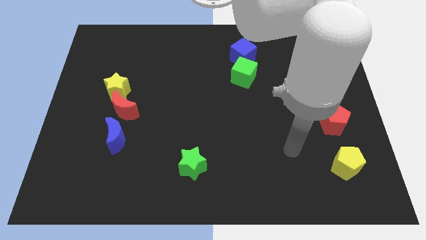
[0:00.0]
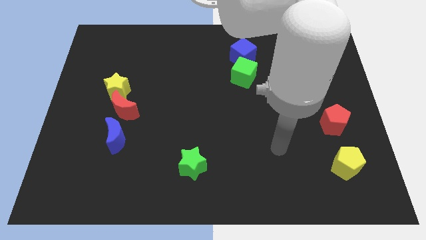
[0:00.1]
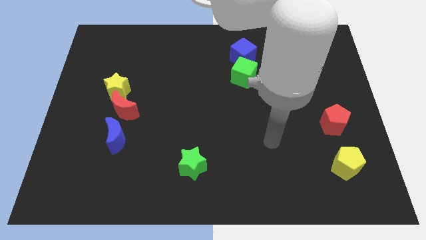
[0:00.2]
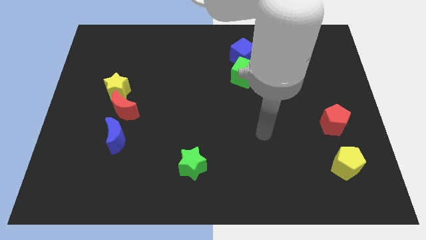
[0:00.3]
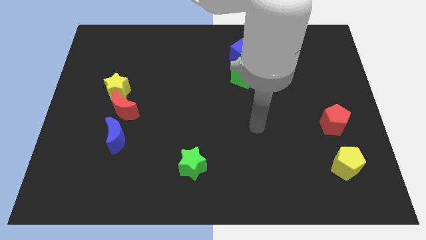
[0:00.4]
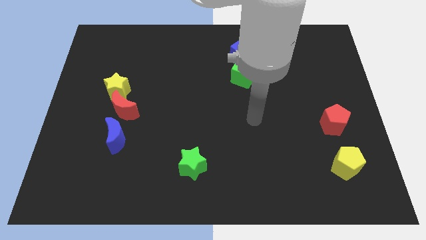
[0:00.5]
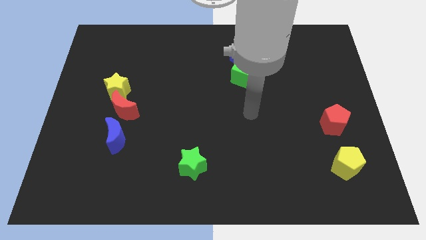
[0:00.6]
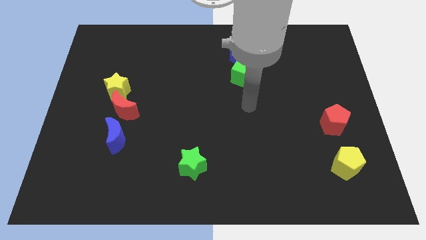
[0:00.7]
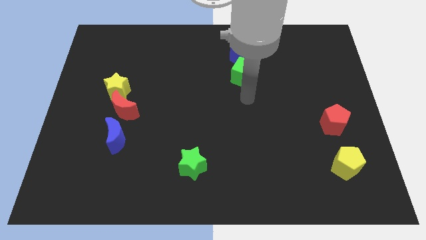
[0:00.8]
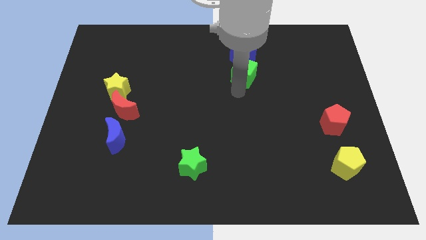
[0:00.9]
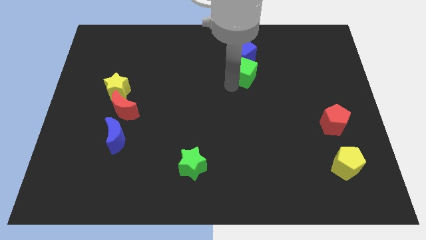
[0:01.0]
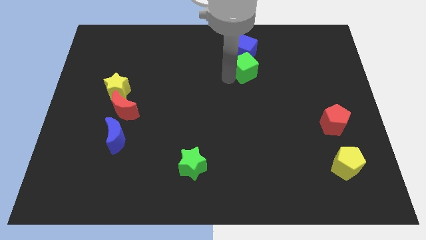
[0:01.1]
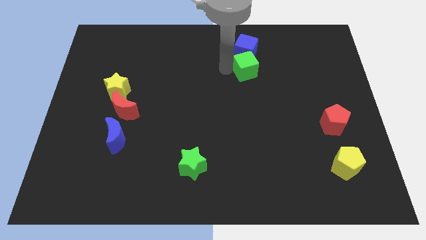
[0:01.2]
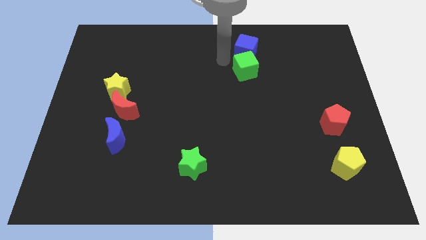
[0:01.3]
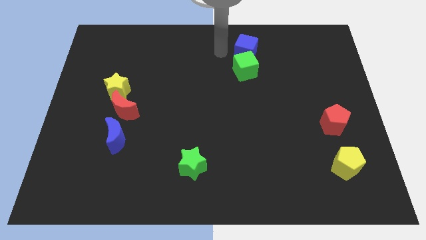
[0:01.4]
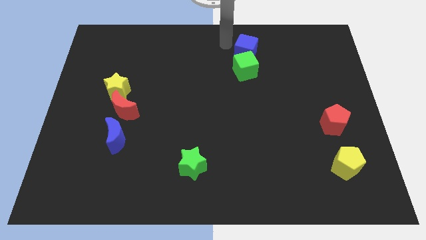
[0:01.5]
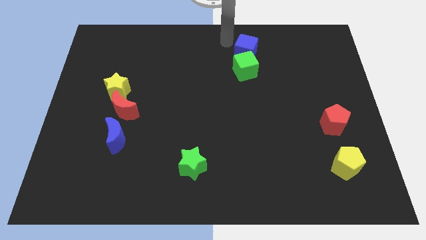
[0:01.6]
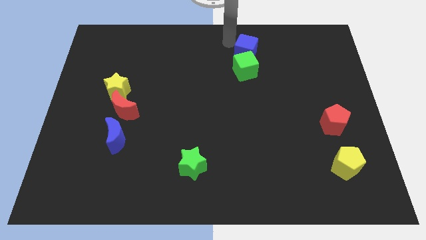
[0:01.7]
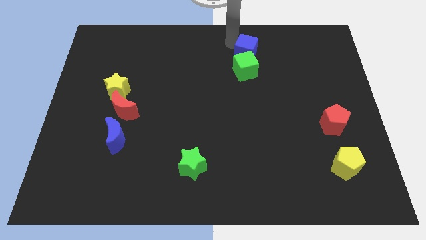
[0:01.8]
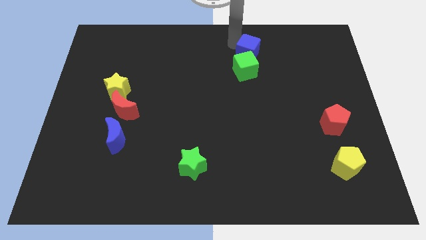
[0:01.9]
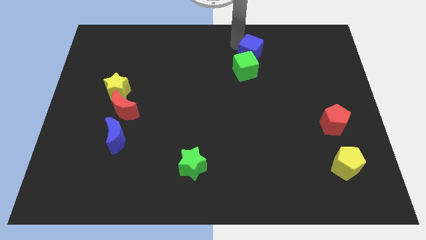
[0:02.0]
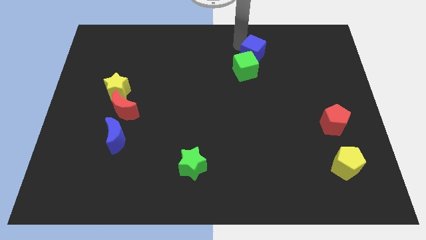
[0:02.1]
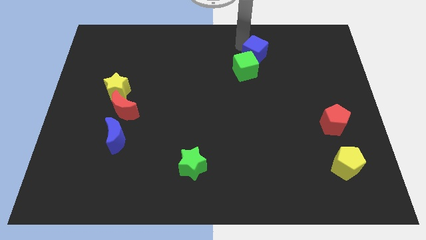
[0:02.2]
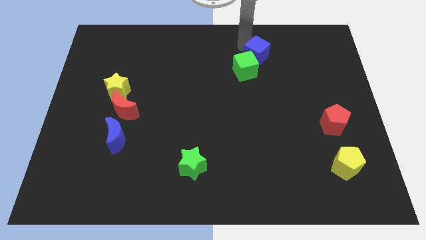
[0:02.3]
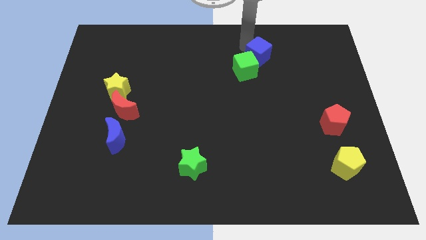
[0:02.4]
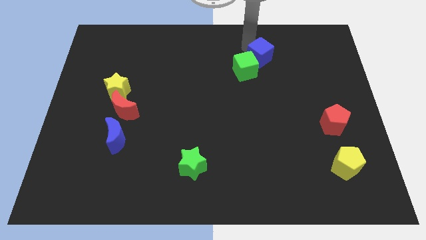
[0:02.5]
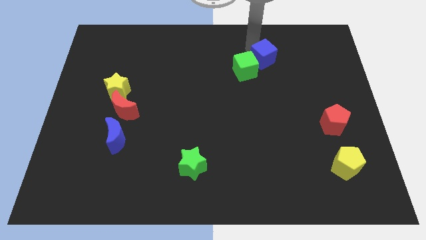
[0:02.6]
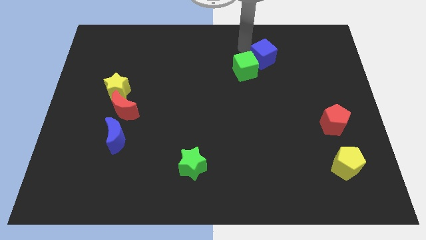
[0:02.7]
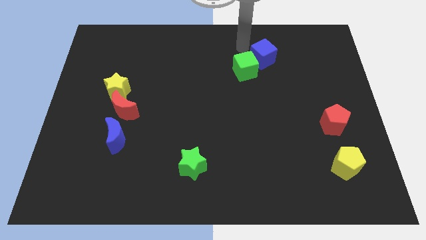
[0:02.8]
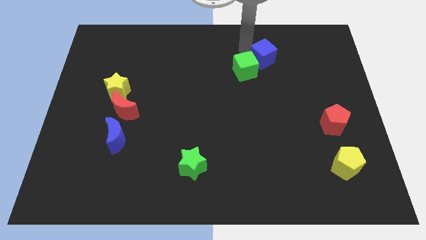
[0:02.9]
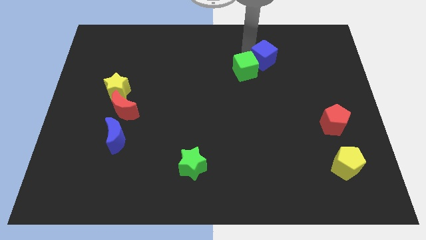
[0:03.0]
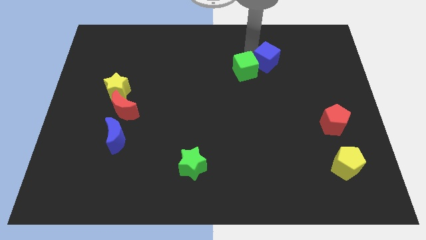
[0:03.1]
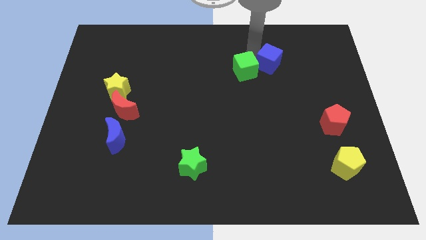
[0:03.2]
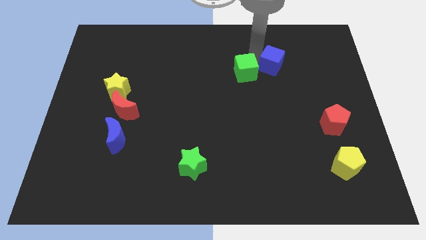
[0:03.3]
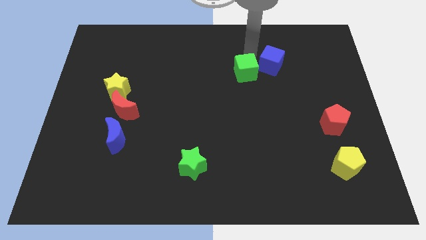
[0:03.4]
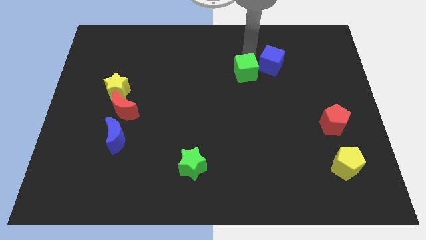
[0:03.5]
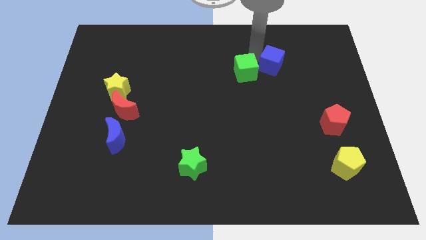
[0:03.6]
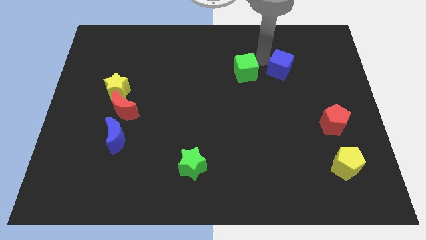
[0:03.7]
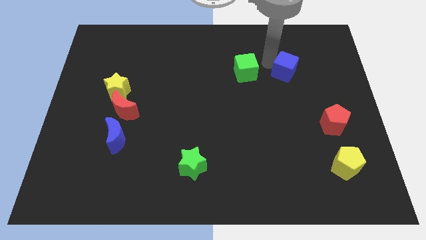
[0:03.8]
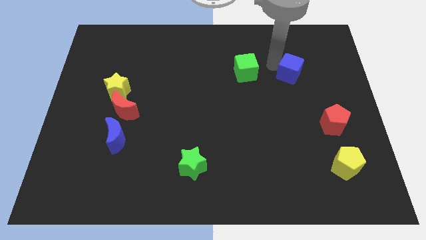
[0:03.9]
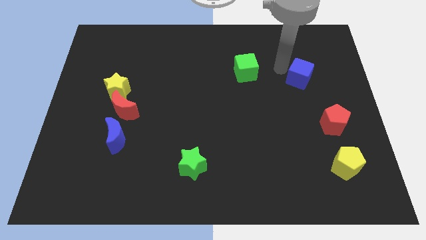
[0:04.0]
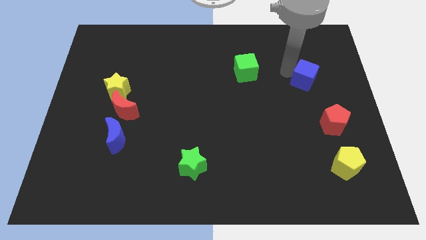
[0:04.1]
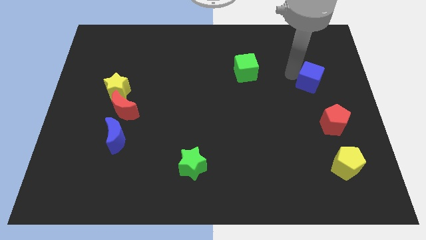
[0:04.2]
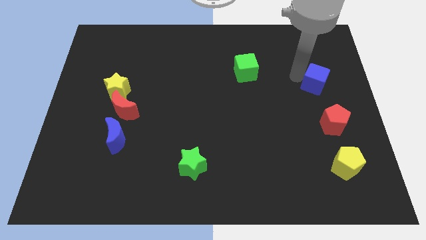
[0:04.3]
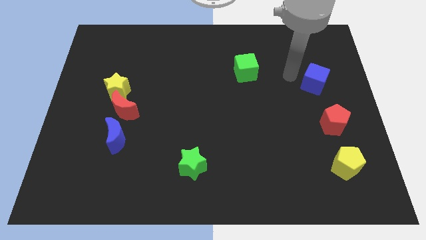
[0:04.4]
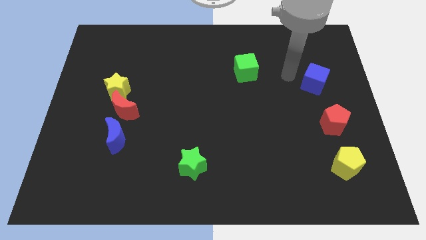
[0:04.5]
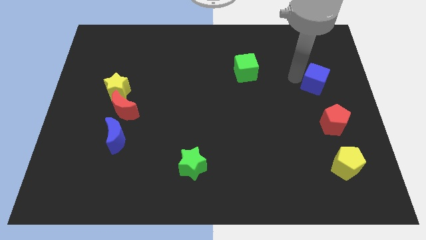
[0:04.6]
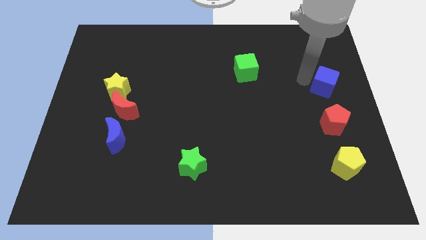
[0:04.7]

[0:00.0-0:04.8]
move the blue cube to the center right

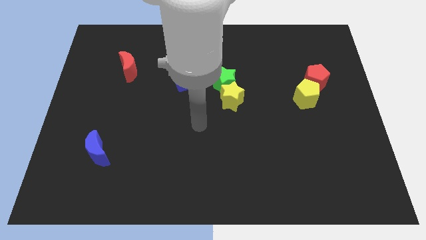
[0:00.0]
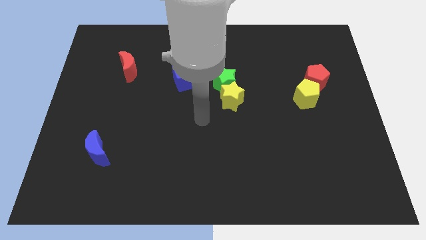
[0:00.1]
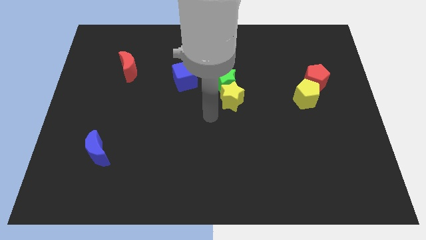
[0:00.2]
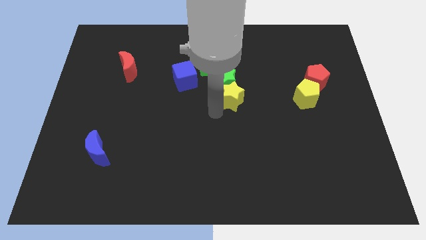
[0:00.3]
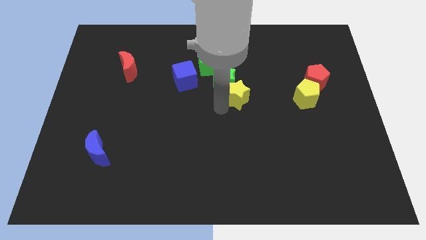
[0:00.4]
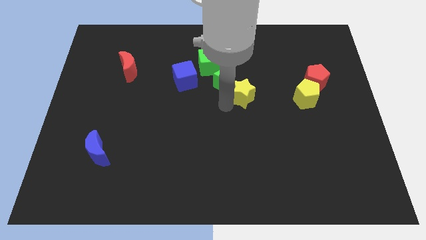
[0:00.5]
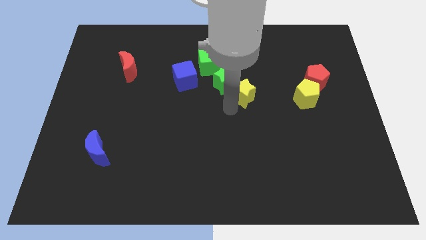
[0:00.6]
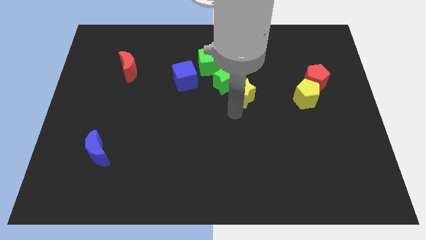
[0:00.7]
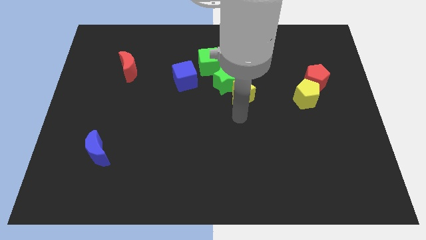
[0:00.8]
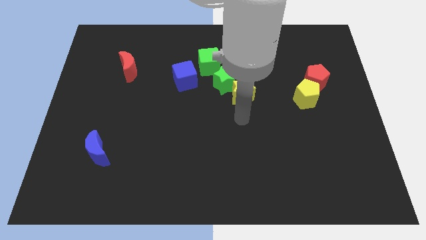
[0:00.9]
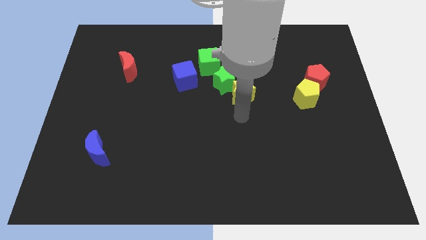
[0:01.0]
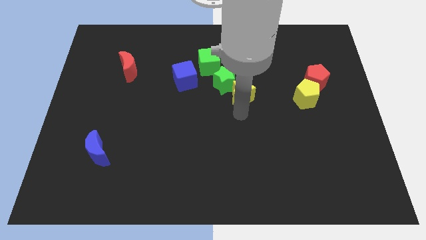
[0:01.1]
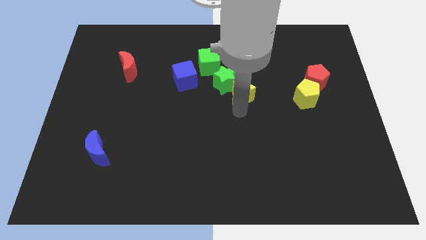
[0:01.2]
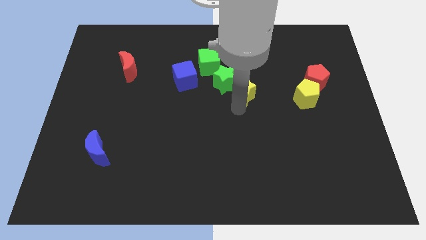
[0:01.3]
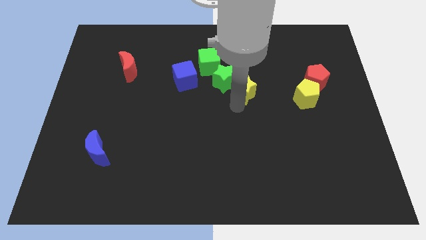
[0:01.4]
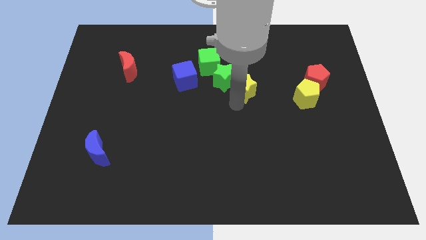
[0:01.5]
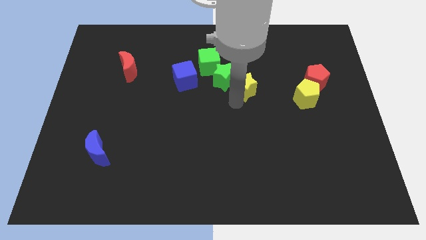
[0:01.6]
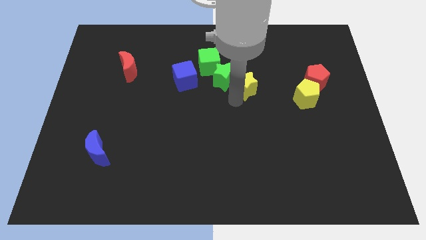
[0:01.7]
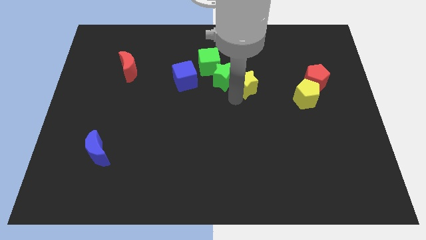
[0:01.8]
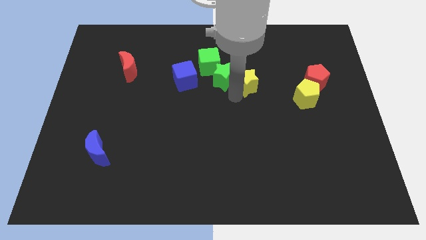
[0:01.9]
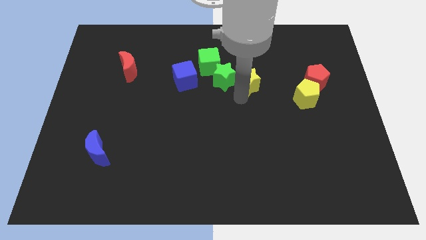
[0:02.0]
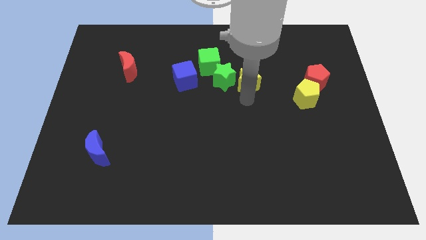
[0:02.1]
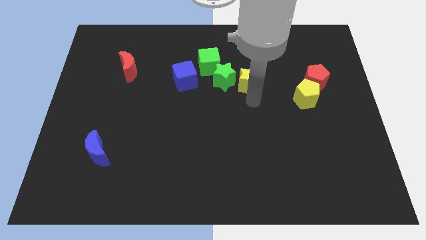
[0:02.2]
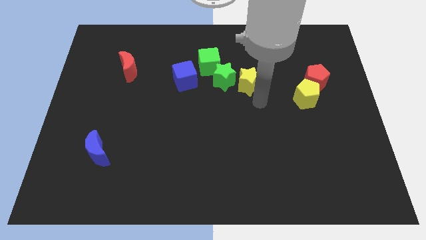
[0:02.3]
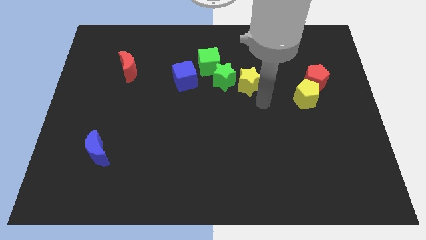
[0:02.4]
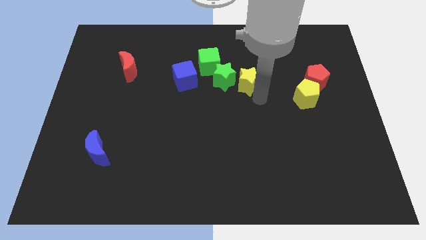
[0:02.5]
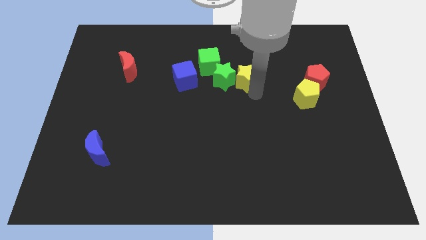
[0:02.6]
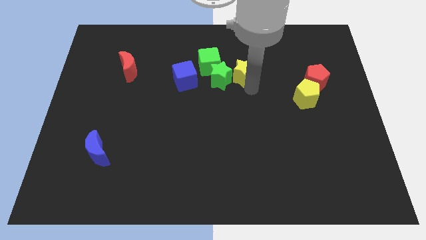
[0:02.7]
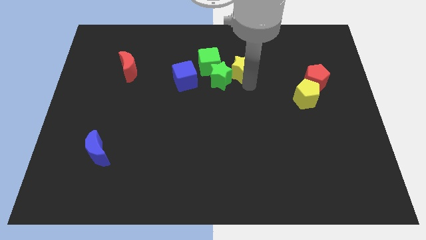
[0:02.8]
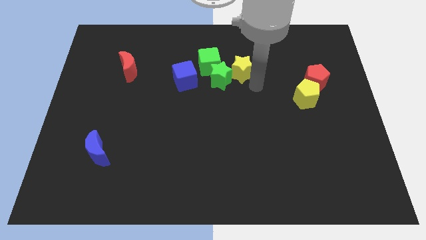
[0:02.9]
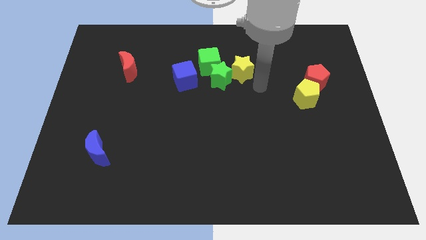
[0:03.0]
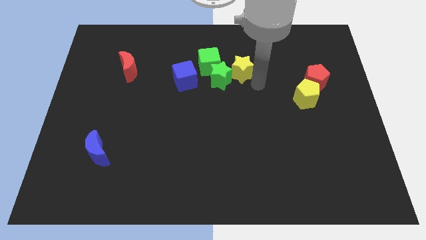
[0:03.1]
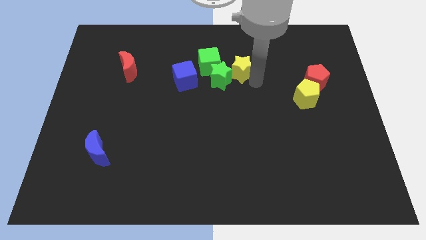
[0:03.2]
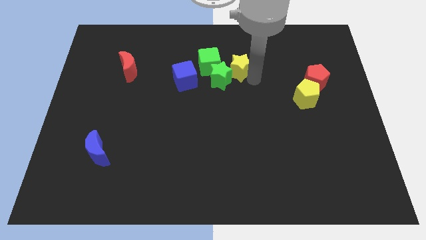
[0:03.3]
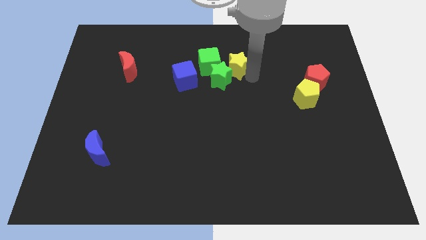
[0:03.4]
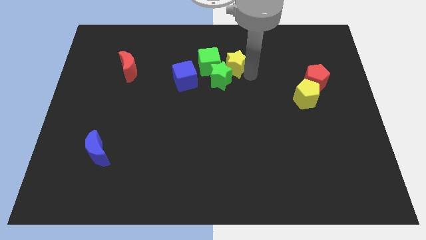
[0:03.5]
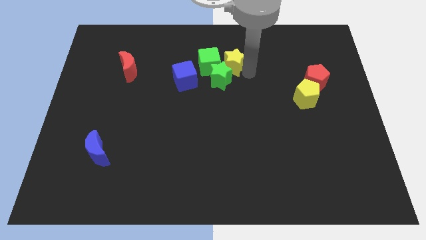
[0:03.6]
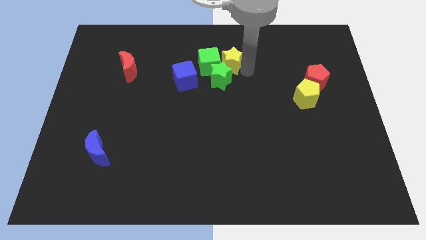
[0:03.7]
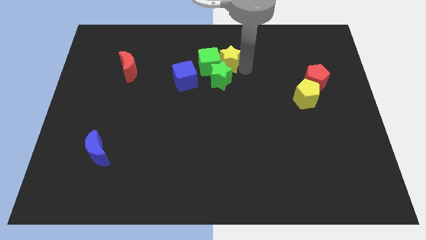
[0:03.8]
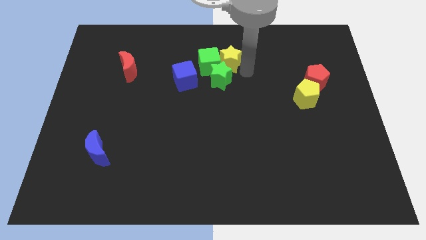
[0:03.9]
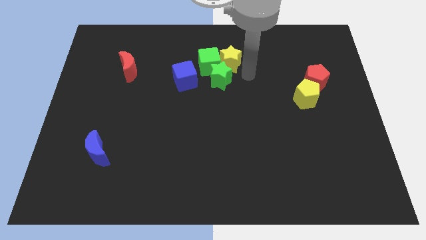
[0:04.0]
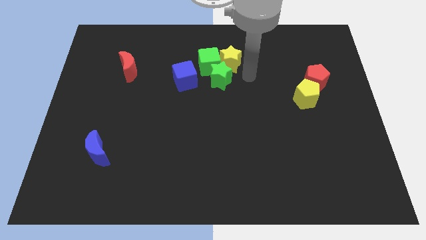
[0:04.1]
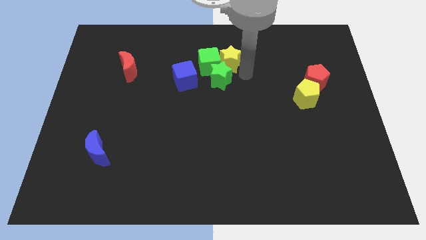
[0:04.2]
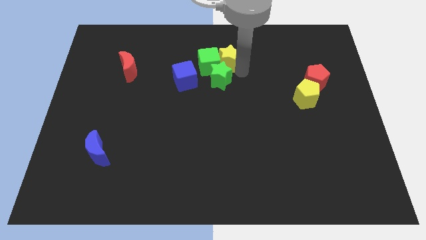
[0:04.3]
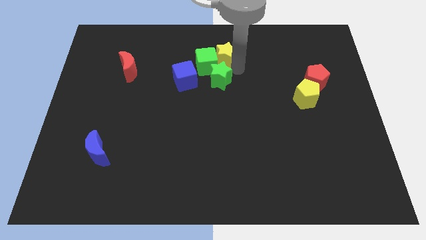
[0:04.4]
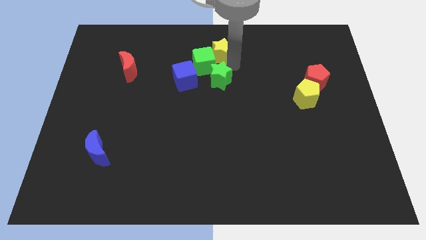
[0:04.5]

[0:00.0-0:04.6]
move the yellow star to the top side
